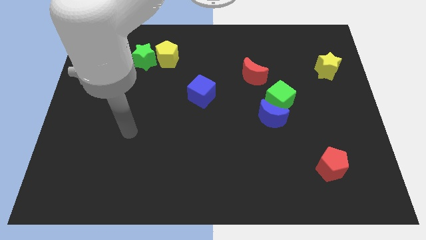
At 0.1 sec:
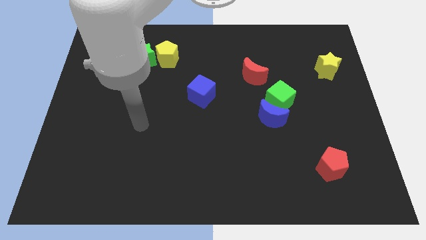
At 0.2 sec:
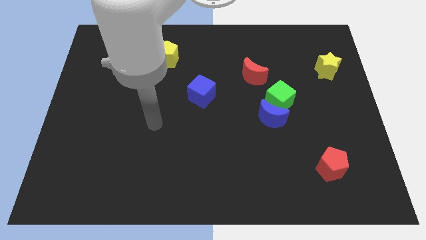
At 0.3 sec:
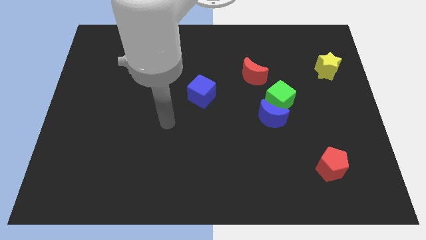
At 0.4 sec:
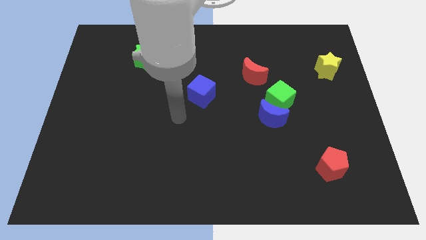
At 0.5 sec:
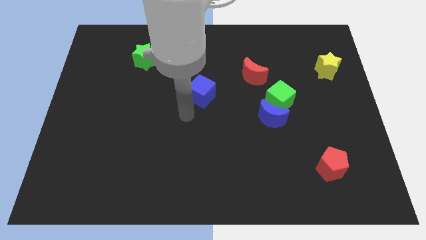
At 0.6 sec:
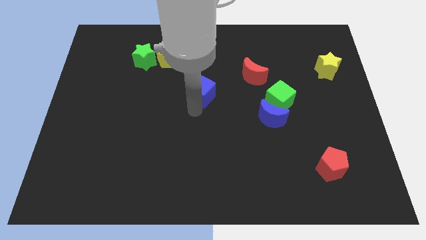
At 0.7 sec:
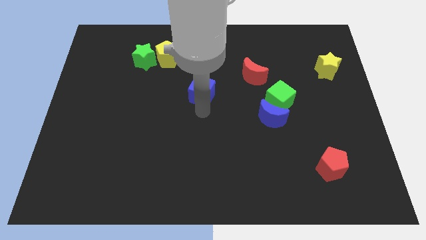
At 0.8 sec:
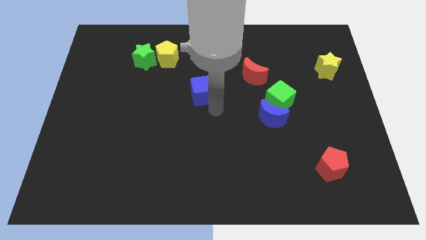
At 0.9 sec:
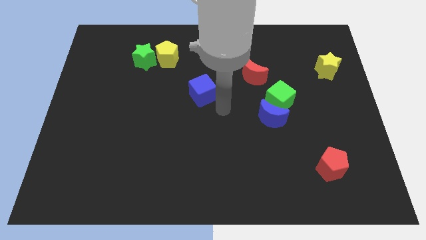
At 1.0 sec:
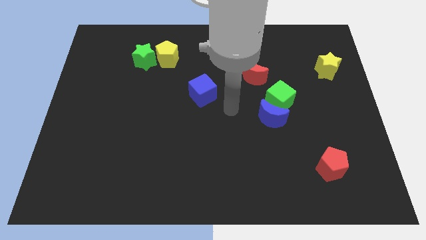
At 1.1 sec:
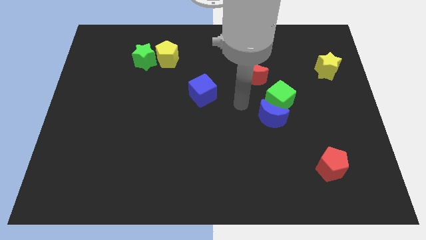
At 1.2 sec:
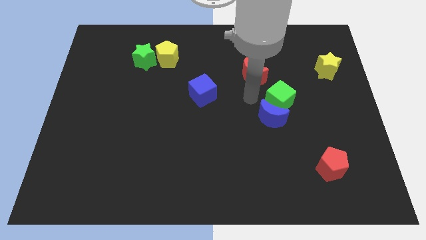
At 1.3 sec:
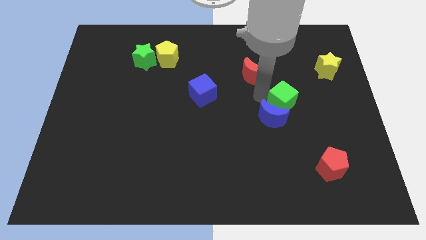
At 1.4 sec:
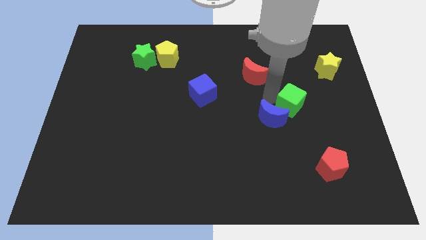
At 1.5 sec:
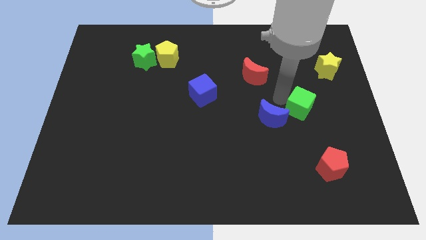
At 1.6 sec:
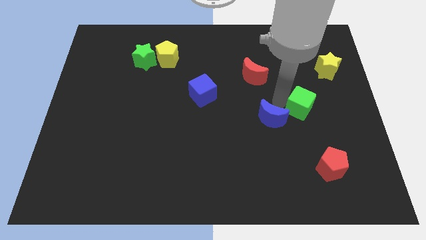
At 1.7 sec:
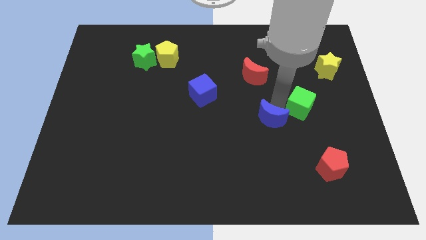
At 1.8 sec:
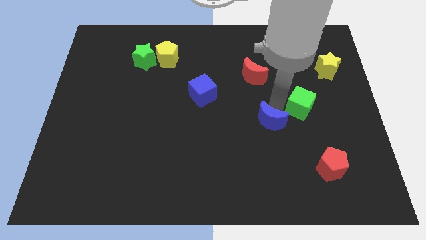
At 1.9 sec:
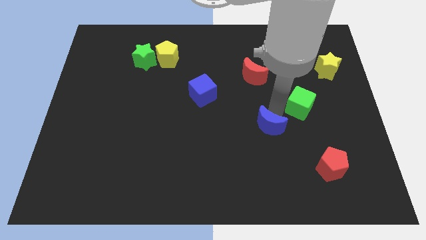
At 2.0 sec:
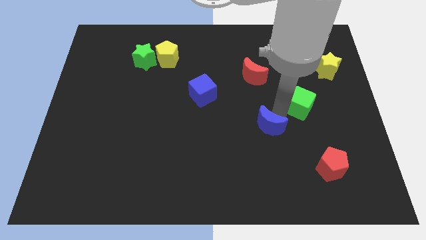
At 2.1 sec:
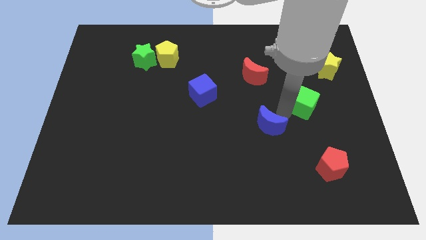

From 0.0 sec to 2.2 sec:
move the blue moon away from the green cube

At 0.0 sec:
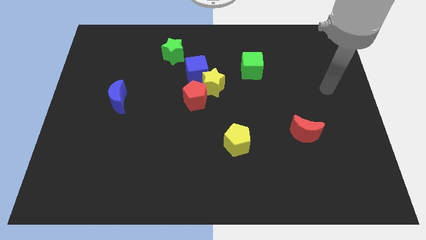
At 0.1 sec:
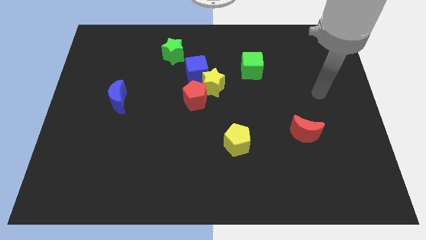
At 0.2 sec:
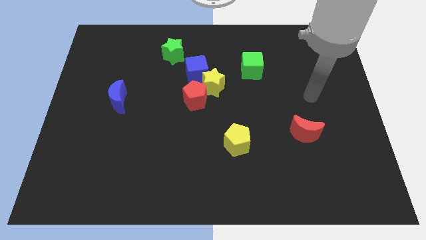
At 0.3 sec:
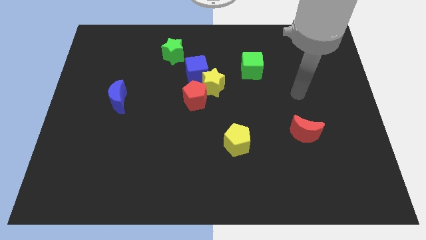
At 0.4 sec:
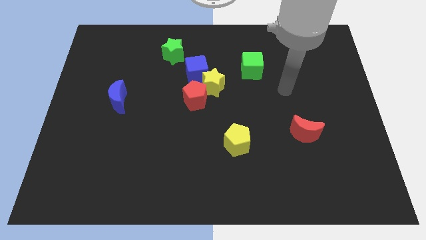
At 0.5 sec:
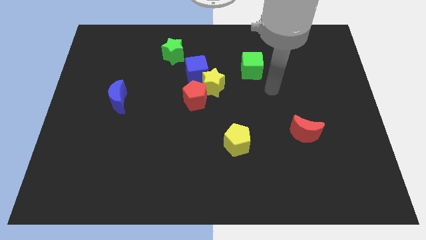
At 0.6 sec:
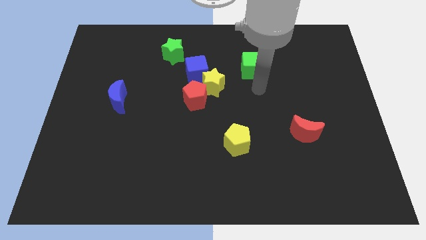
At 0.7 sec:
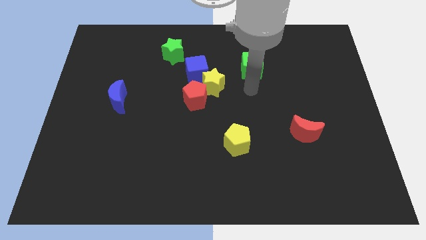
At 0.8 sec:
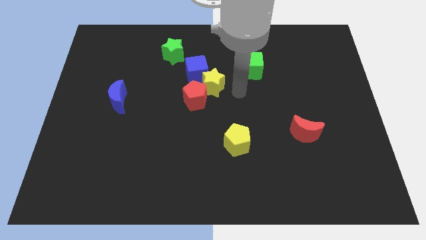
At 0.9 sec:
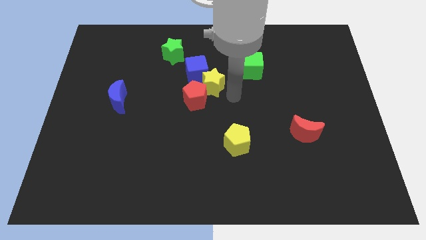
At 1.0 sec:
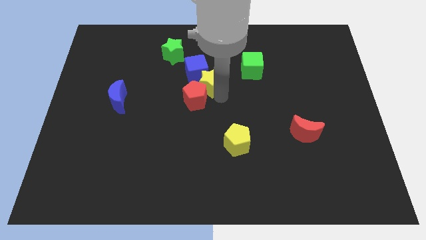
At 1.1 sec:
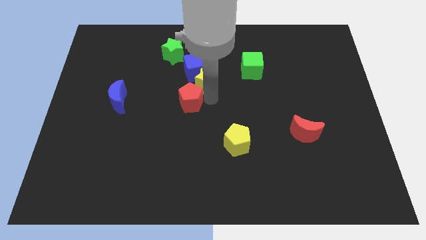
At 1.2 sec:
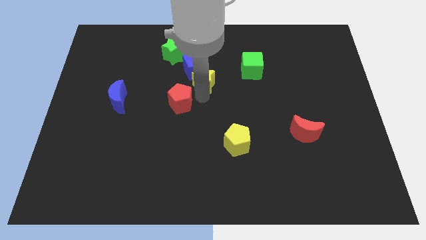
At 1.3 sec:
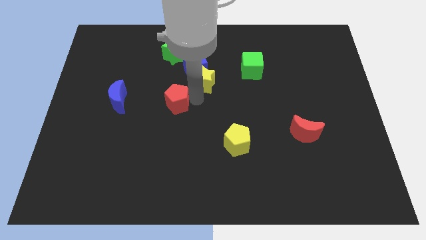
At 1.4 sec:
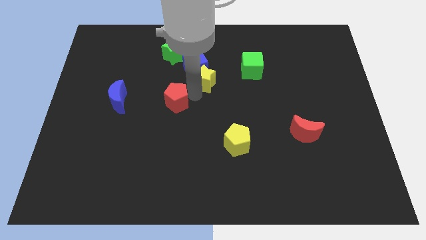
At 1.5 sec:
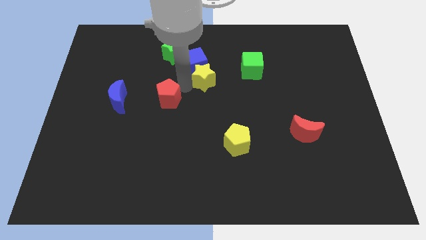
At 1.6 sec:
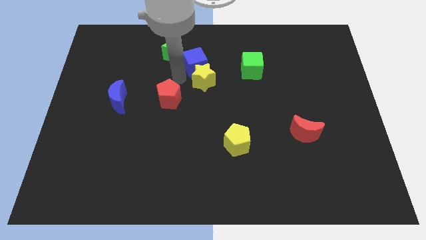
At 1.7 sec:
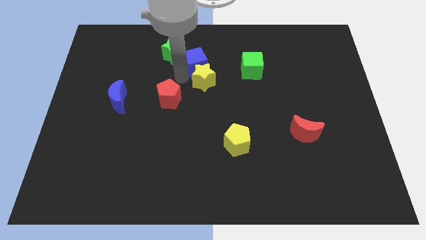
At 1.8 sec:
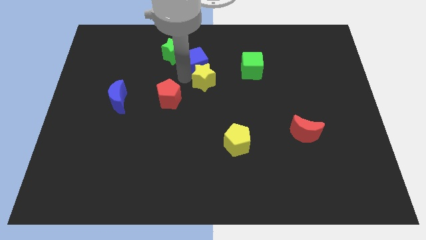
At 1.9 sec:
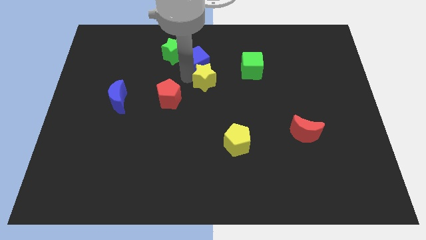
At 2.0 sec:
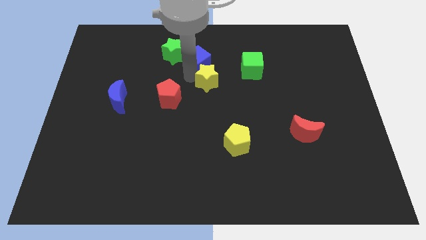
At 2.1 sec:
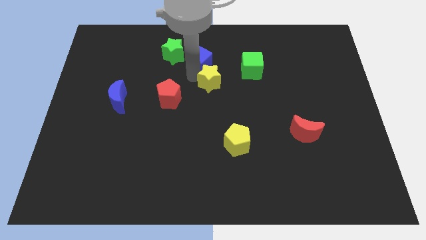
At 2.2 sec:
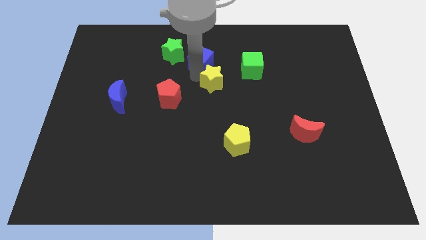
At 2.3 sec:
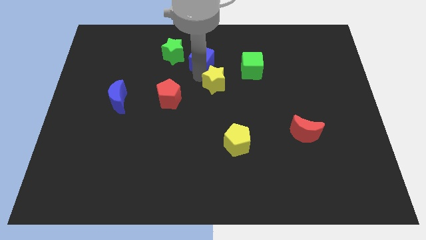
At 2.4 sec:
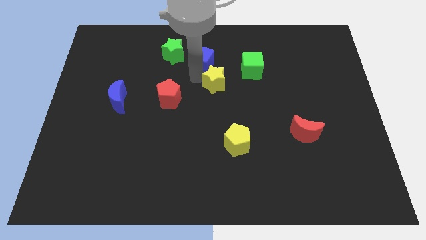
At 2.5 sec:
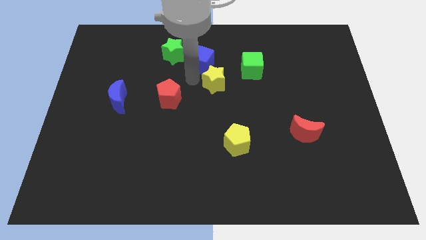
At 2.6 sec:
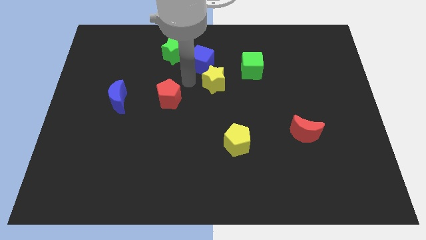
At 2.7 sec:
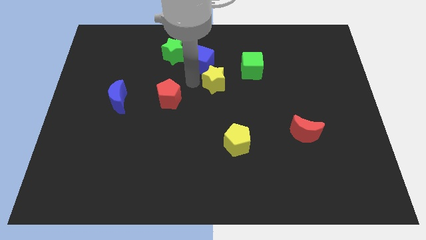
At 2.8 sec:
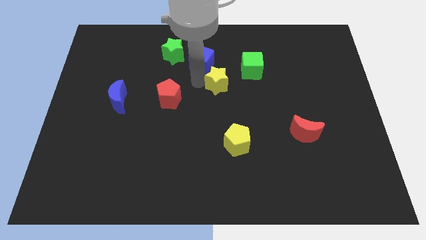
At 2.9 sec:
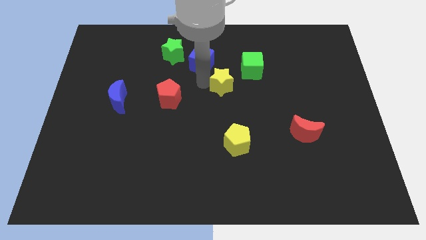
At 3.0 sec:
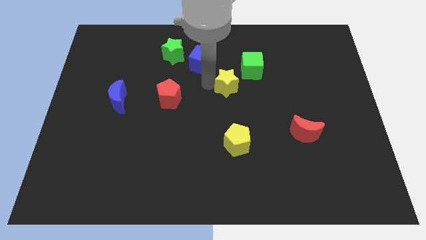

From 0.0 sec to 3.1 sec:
move the yellow star away from the red pentagon and blue cube

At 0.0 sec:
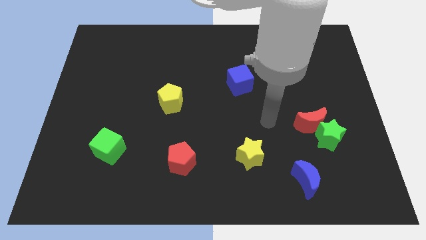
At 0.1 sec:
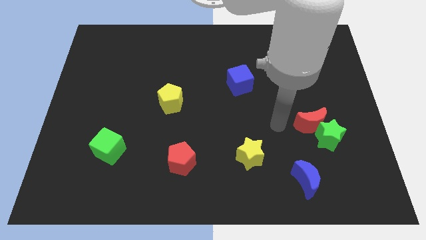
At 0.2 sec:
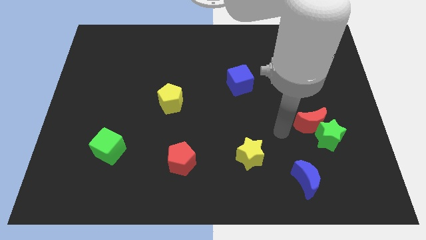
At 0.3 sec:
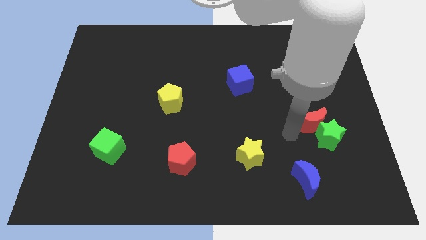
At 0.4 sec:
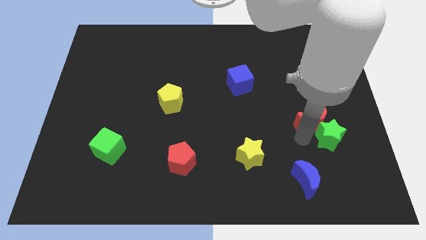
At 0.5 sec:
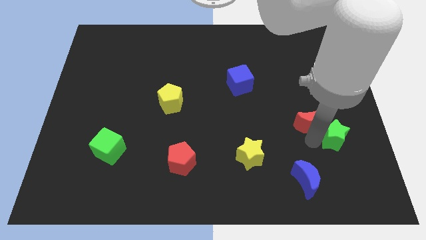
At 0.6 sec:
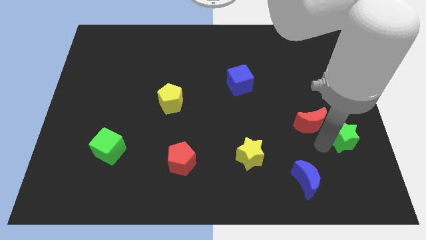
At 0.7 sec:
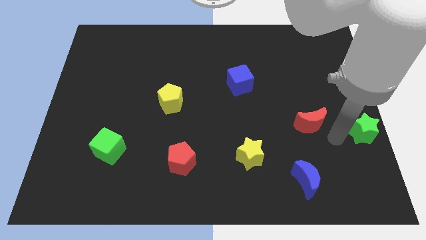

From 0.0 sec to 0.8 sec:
separate the red moon from the green star

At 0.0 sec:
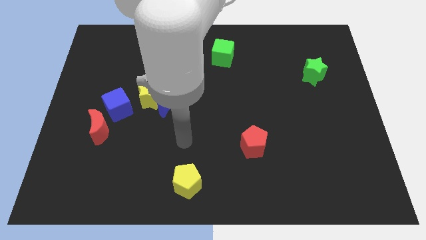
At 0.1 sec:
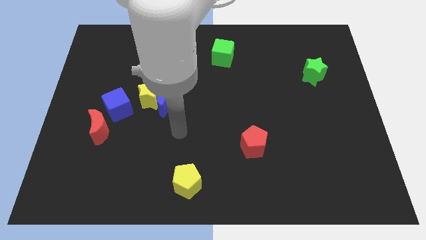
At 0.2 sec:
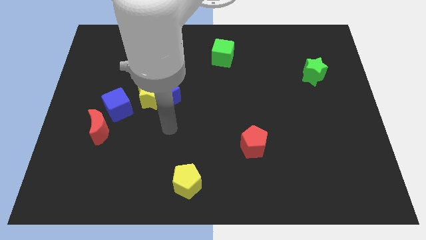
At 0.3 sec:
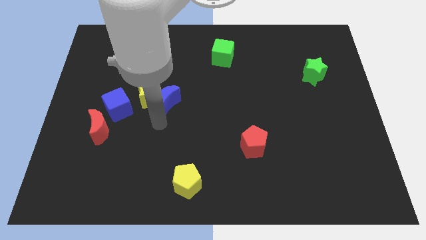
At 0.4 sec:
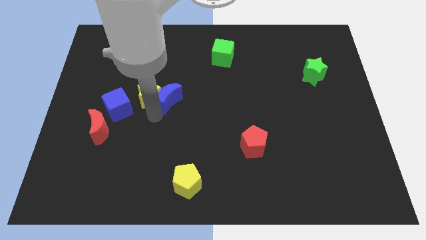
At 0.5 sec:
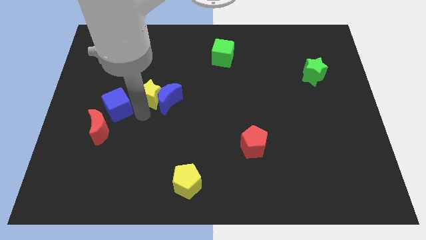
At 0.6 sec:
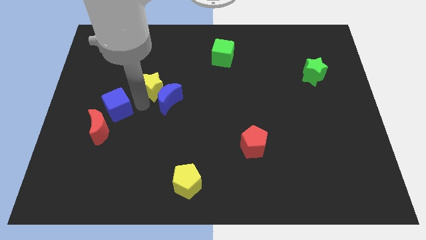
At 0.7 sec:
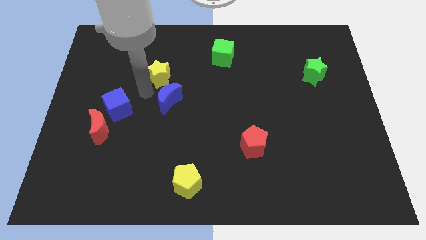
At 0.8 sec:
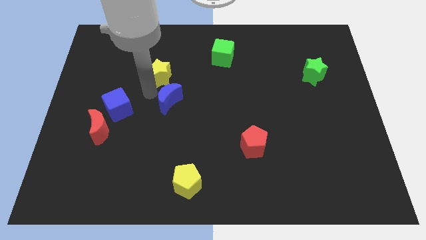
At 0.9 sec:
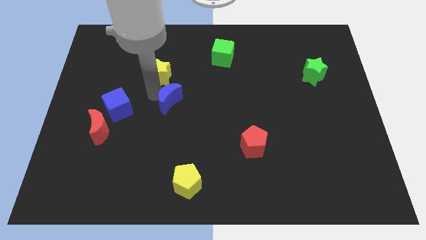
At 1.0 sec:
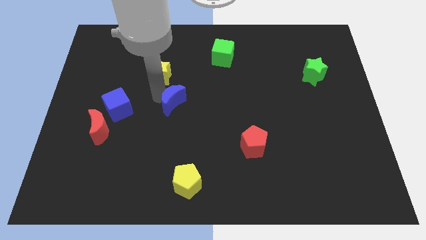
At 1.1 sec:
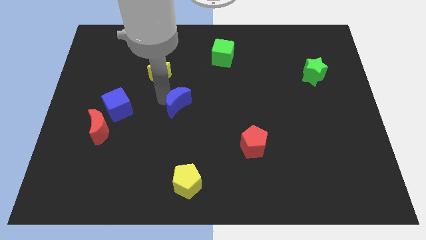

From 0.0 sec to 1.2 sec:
separate the blue moon from the yellow star

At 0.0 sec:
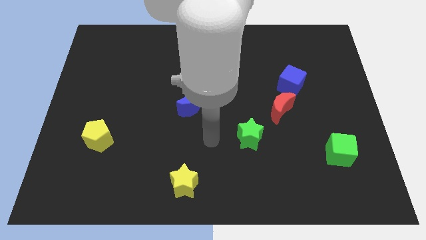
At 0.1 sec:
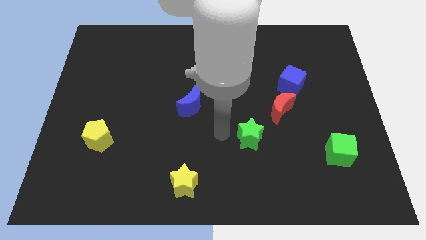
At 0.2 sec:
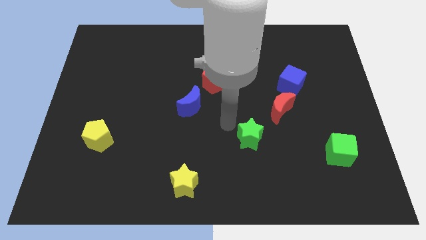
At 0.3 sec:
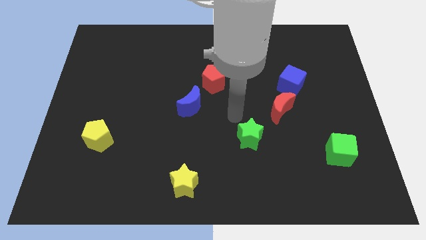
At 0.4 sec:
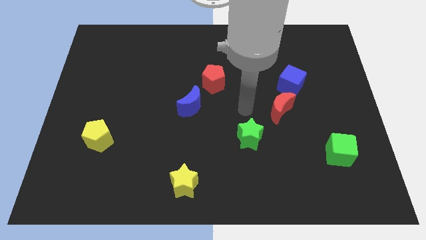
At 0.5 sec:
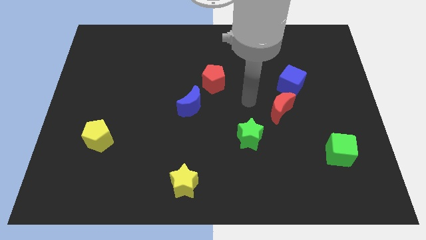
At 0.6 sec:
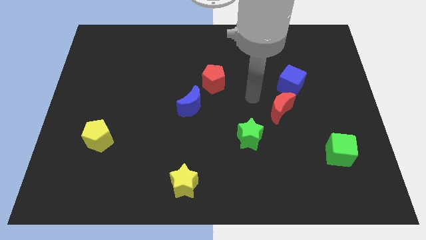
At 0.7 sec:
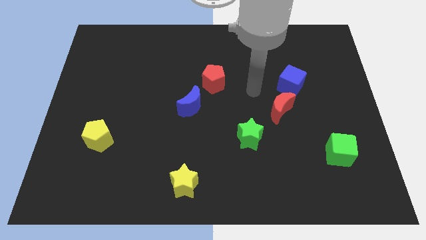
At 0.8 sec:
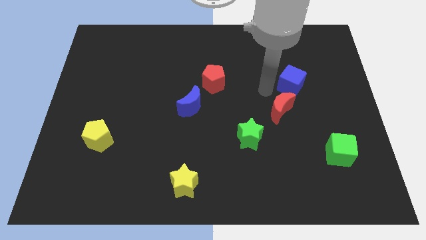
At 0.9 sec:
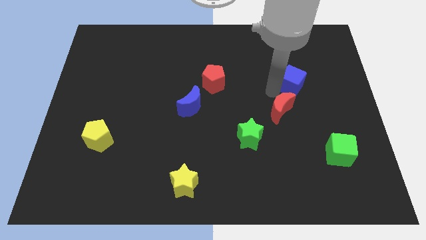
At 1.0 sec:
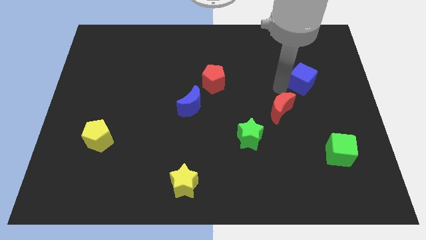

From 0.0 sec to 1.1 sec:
move the red moon away from the blue cube

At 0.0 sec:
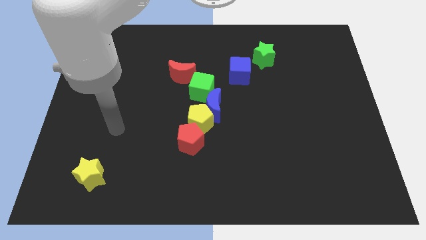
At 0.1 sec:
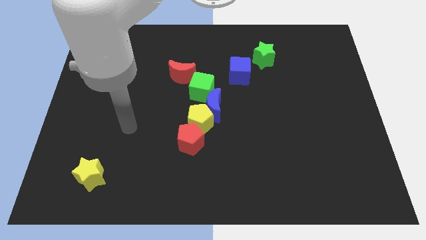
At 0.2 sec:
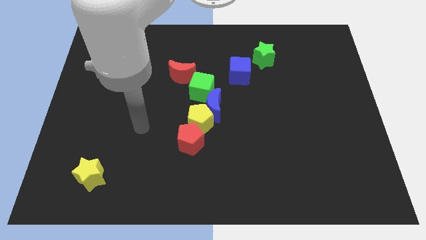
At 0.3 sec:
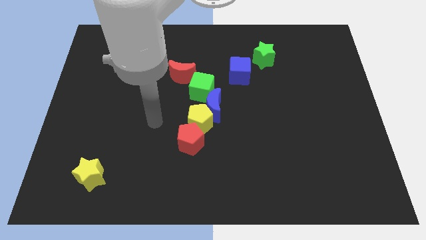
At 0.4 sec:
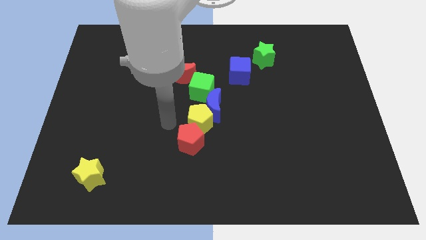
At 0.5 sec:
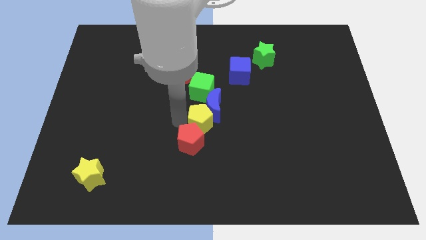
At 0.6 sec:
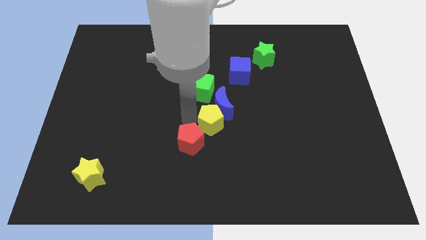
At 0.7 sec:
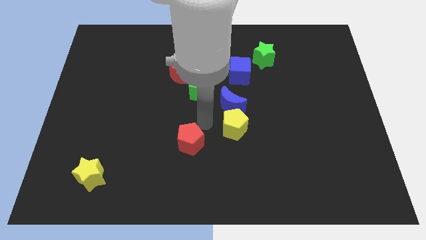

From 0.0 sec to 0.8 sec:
pull the red pentagon apart from the yellow pentagon

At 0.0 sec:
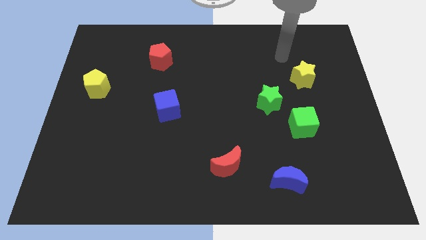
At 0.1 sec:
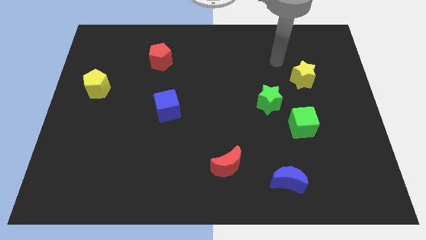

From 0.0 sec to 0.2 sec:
separate the green cube from the green star
